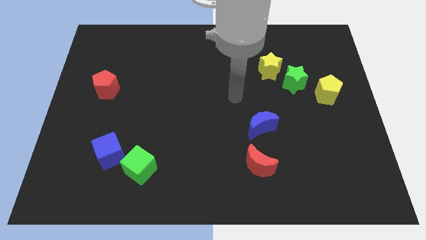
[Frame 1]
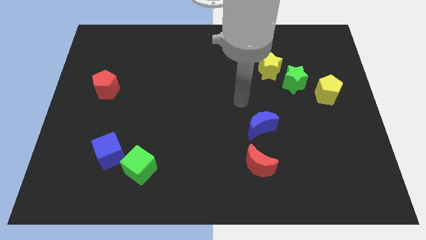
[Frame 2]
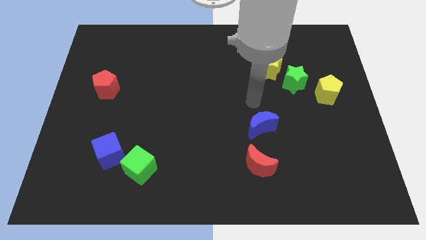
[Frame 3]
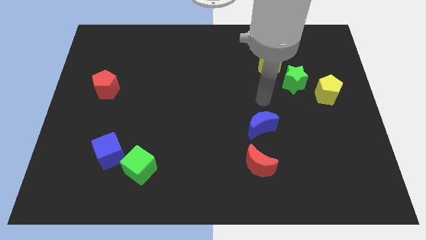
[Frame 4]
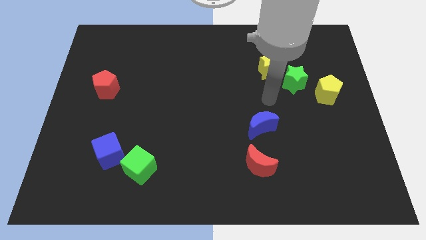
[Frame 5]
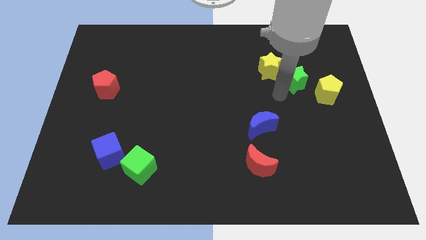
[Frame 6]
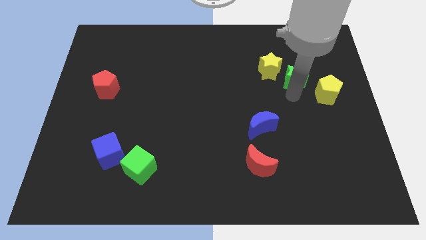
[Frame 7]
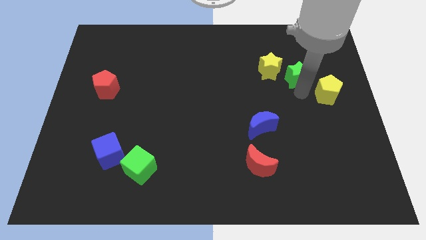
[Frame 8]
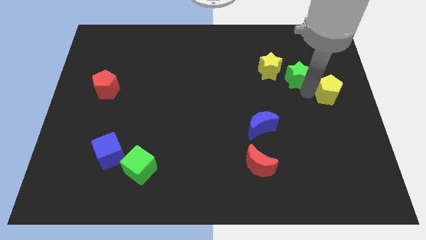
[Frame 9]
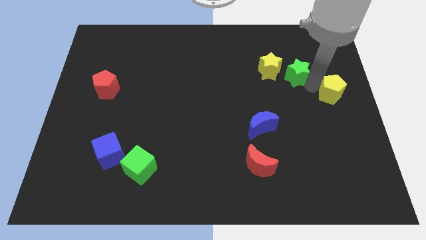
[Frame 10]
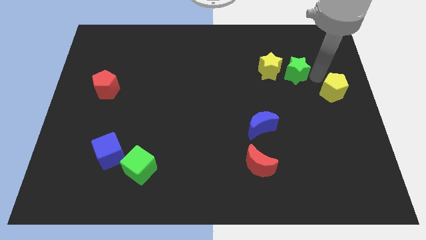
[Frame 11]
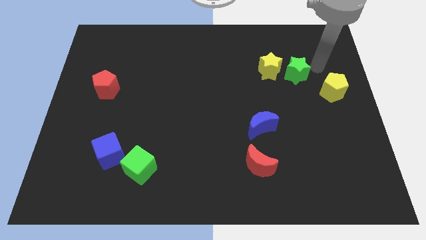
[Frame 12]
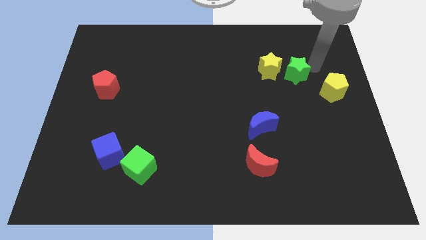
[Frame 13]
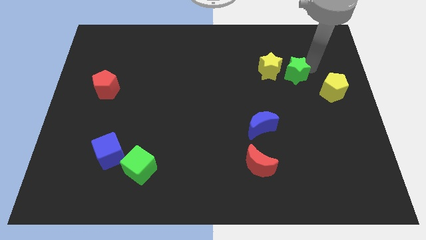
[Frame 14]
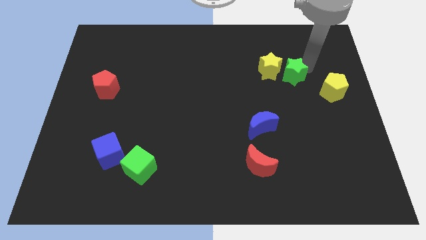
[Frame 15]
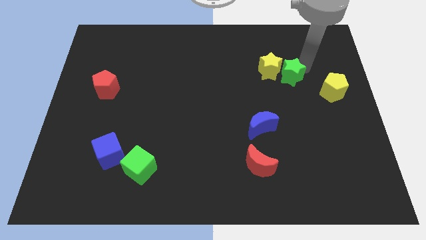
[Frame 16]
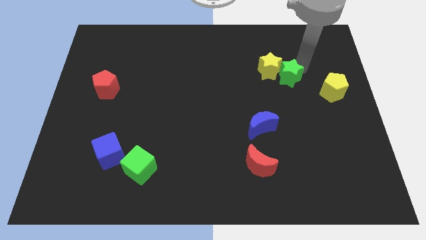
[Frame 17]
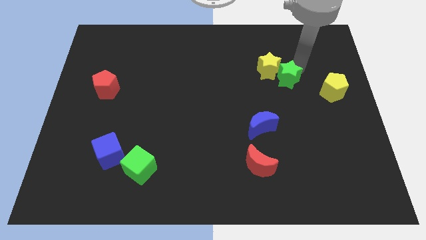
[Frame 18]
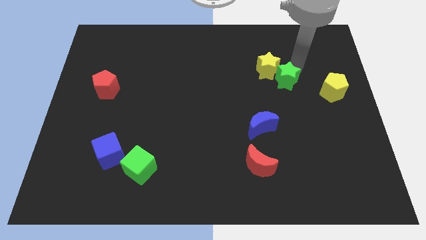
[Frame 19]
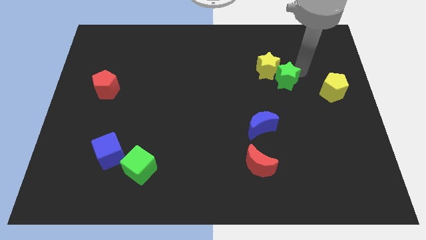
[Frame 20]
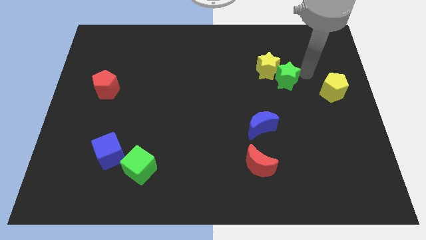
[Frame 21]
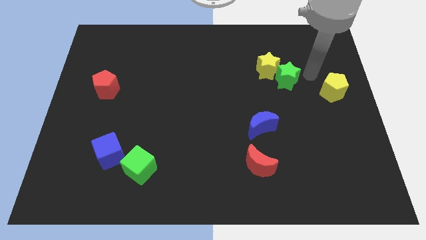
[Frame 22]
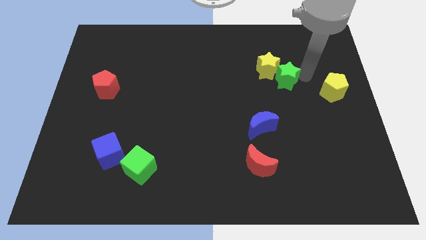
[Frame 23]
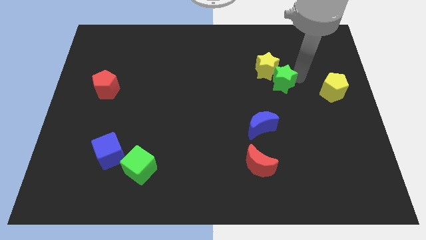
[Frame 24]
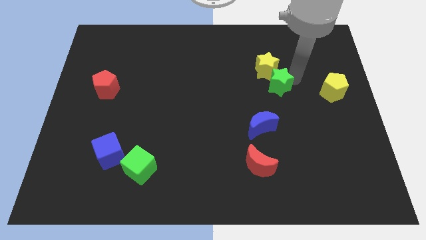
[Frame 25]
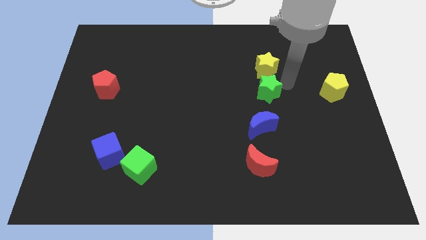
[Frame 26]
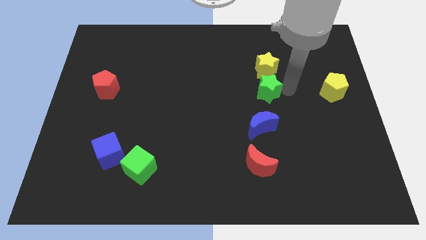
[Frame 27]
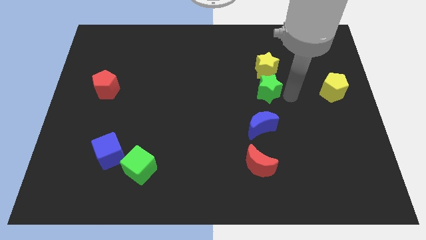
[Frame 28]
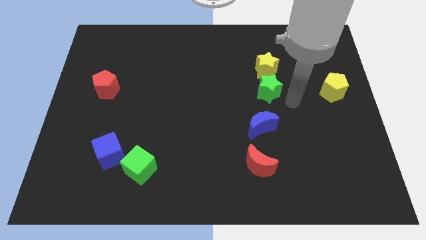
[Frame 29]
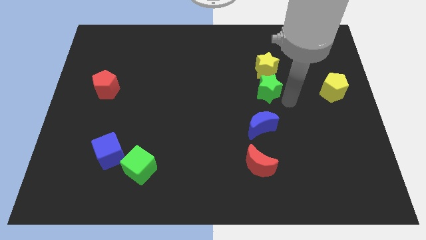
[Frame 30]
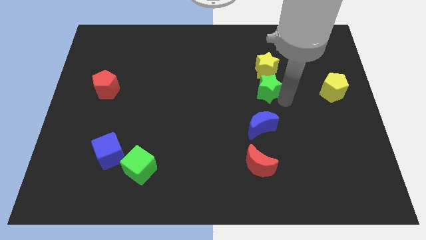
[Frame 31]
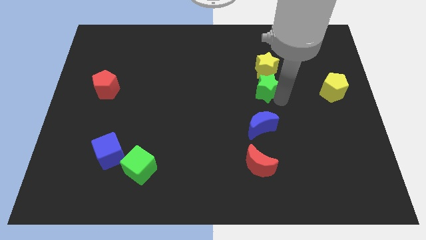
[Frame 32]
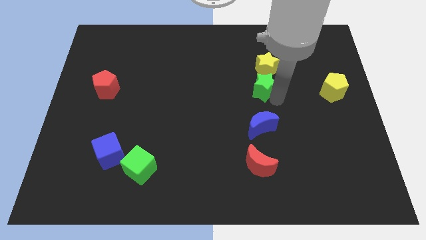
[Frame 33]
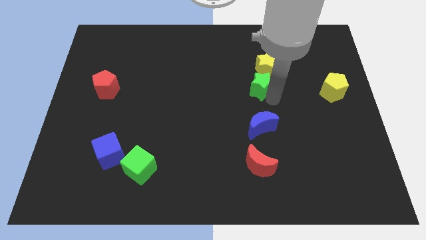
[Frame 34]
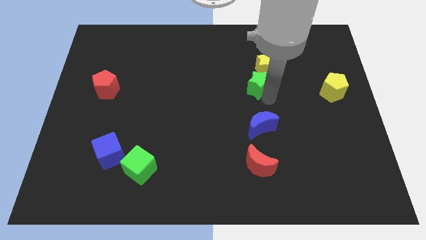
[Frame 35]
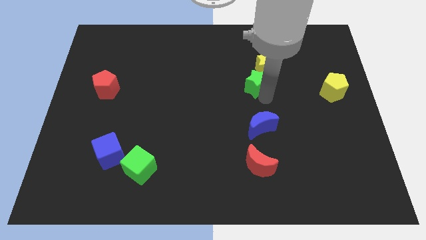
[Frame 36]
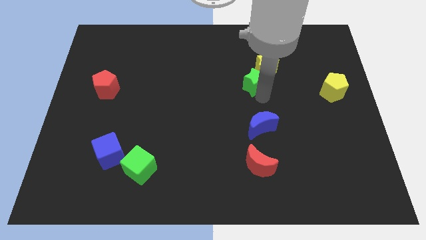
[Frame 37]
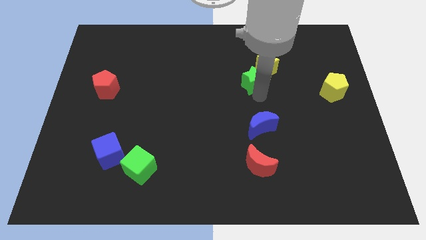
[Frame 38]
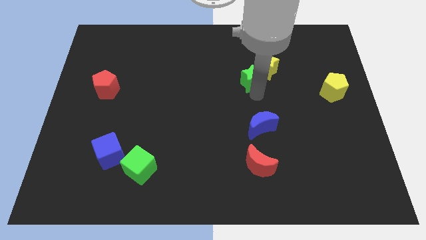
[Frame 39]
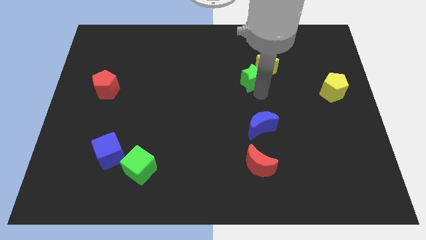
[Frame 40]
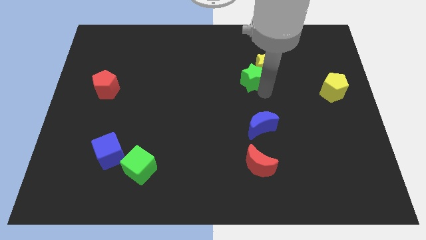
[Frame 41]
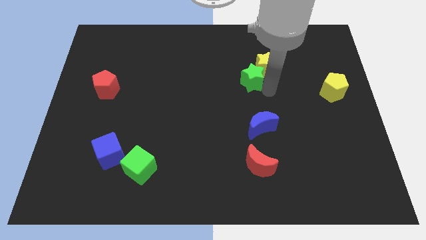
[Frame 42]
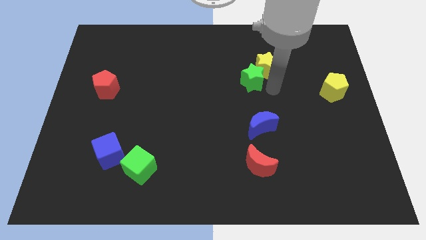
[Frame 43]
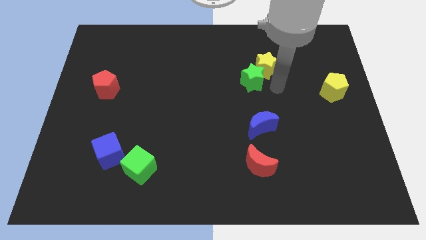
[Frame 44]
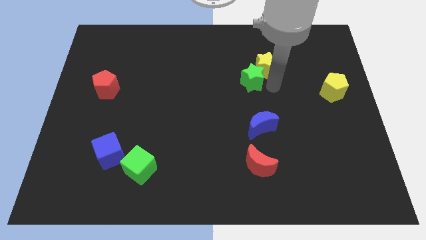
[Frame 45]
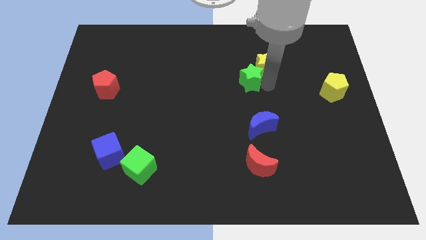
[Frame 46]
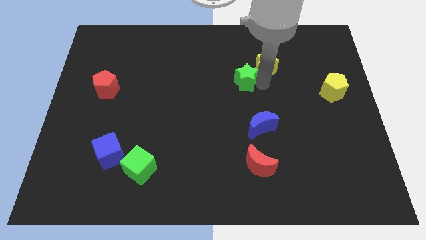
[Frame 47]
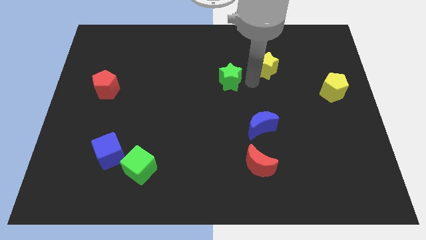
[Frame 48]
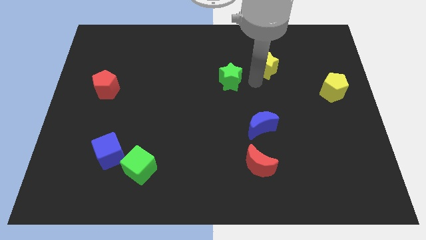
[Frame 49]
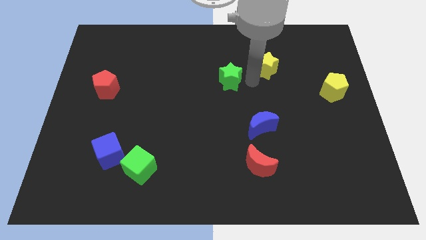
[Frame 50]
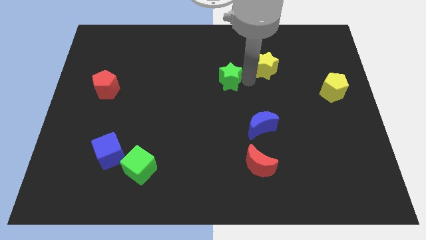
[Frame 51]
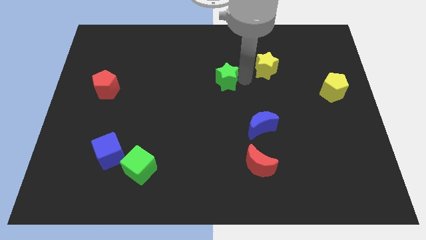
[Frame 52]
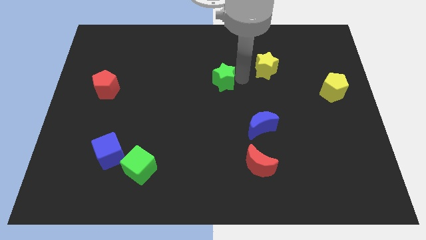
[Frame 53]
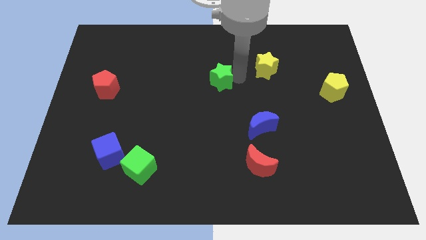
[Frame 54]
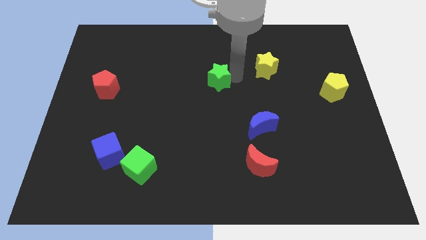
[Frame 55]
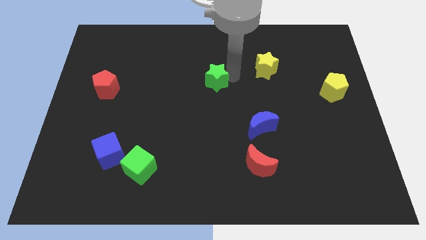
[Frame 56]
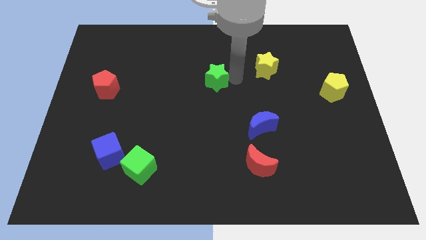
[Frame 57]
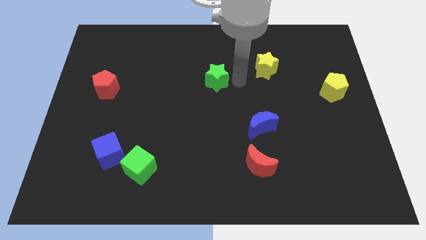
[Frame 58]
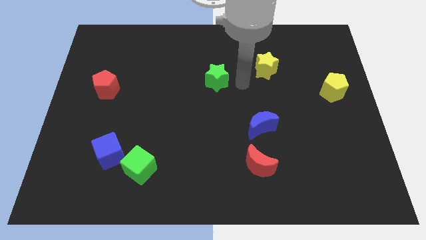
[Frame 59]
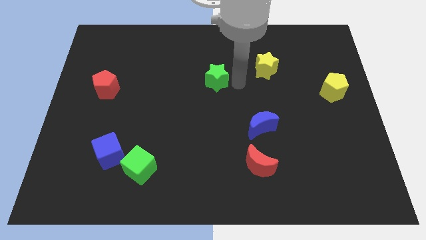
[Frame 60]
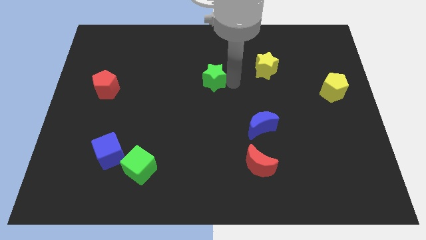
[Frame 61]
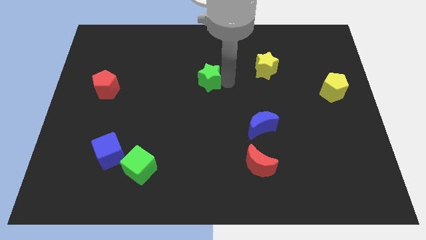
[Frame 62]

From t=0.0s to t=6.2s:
move the green star to the left

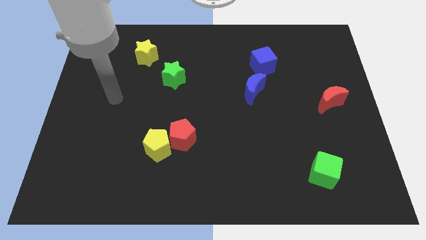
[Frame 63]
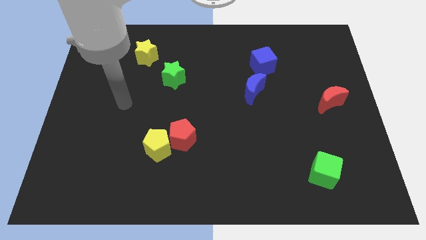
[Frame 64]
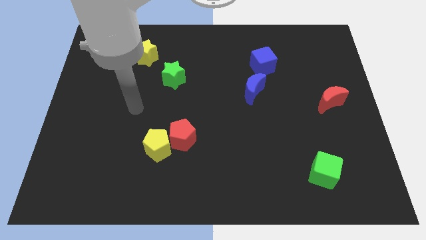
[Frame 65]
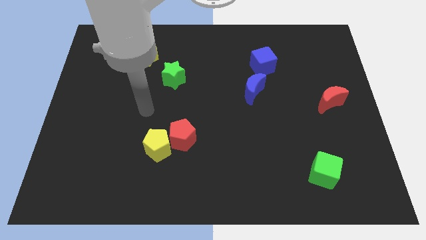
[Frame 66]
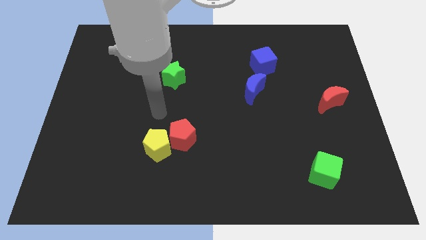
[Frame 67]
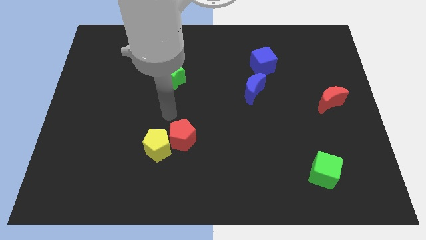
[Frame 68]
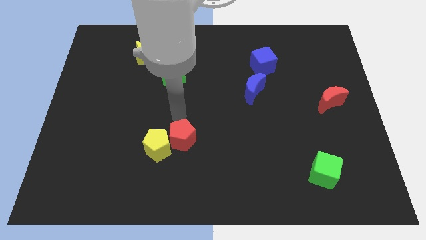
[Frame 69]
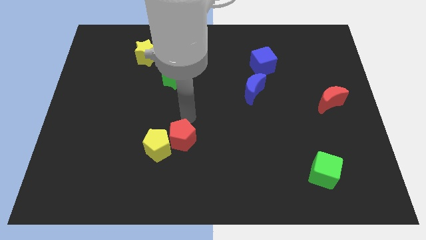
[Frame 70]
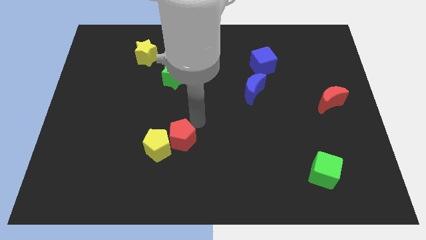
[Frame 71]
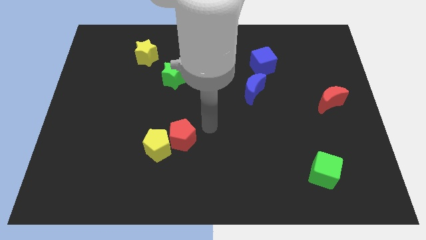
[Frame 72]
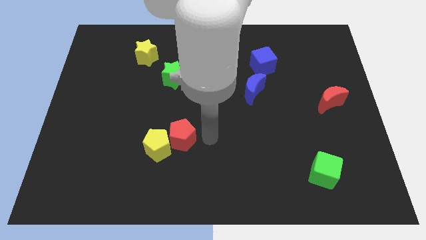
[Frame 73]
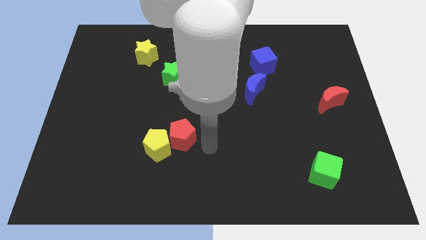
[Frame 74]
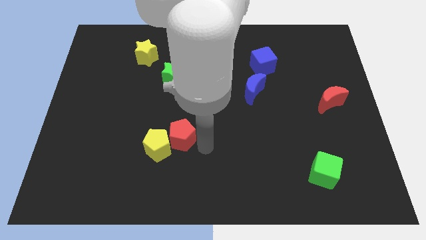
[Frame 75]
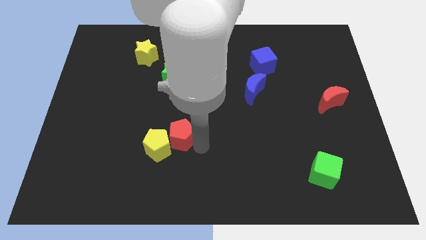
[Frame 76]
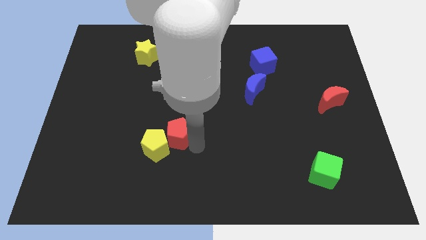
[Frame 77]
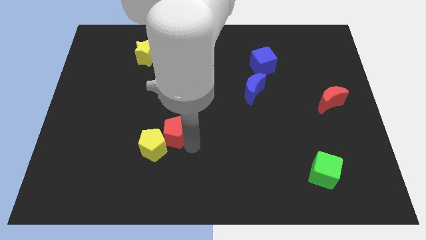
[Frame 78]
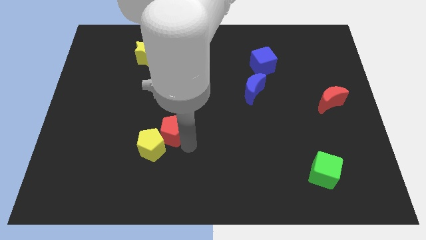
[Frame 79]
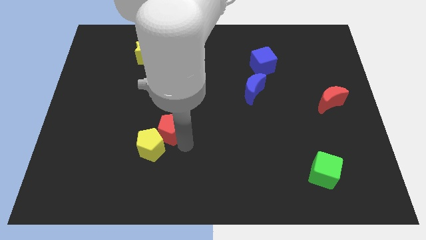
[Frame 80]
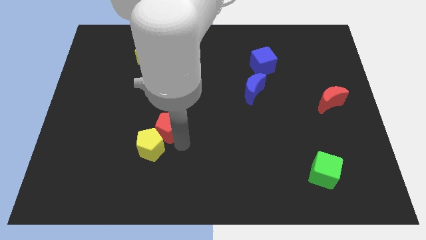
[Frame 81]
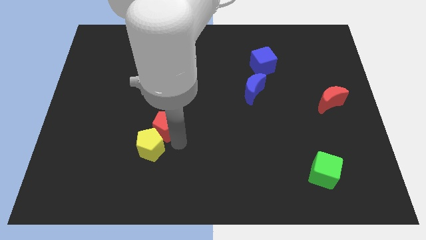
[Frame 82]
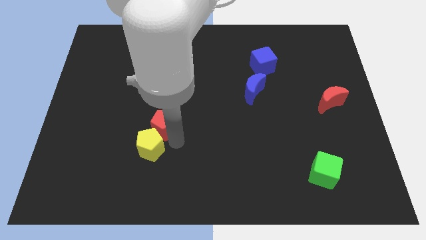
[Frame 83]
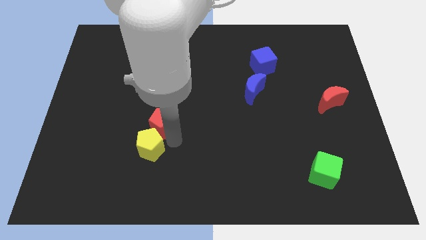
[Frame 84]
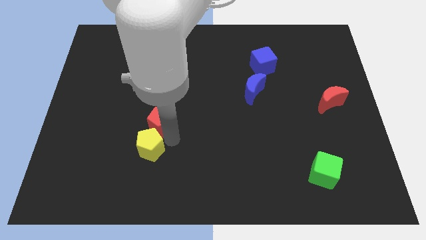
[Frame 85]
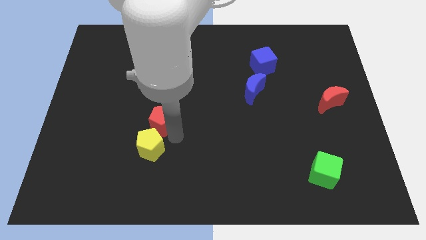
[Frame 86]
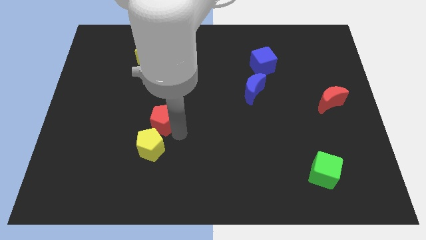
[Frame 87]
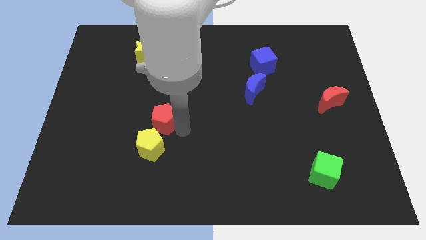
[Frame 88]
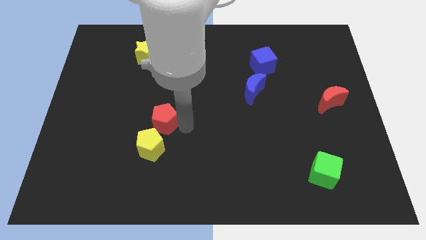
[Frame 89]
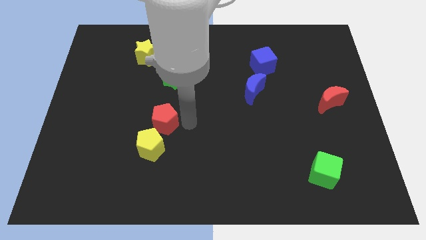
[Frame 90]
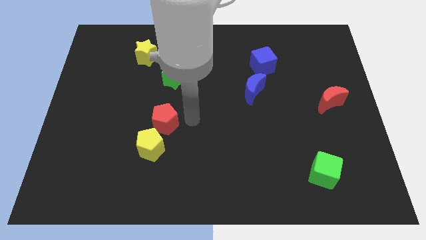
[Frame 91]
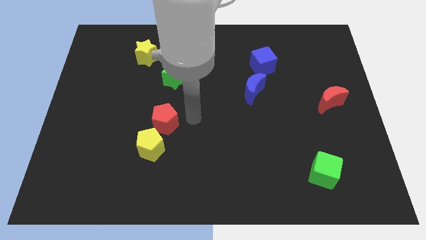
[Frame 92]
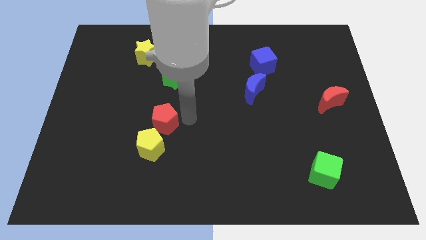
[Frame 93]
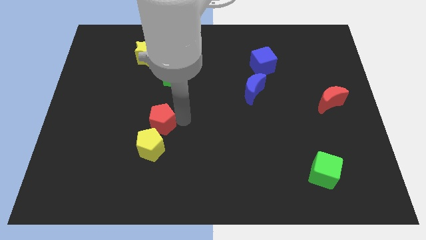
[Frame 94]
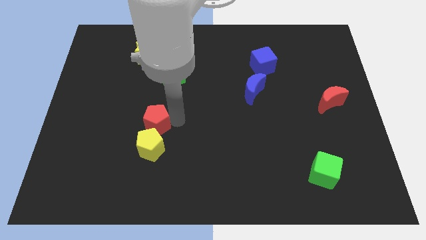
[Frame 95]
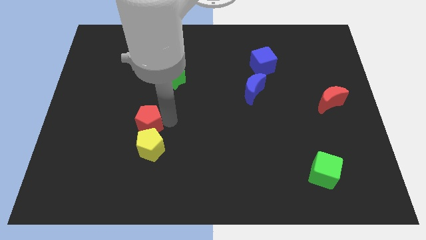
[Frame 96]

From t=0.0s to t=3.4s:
move the red pentagon to the left slightly
